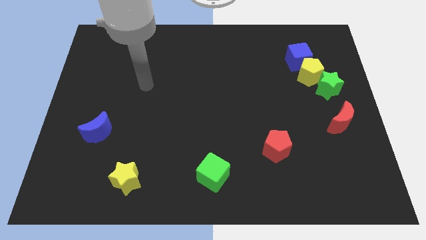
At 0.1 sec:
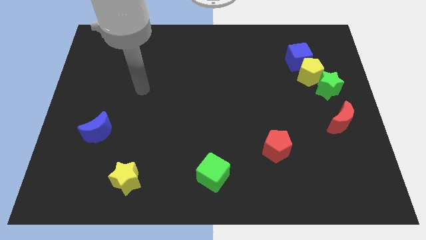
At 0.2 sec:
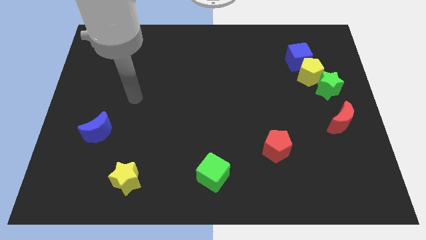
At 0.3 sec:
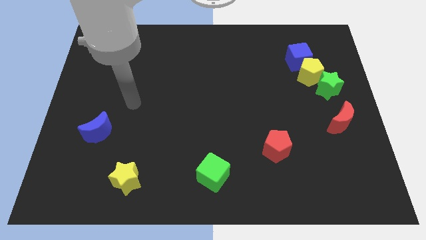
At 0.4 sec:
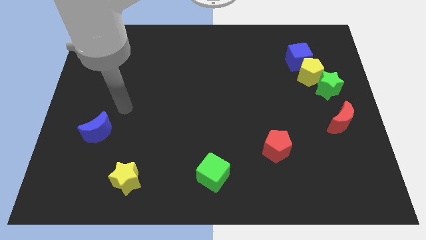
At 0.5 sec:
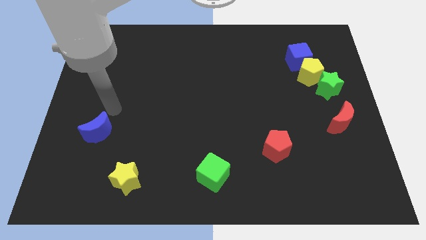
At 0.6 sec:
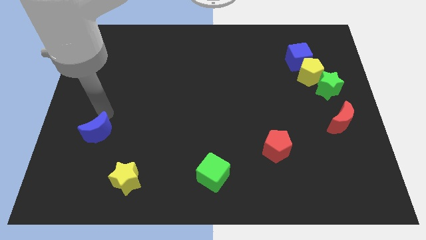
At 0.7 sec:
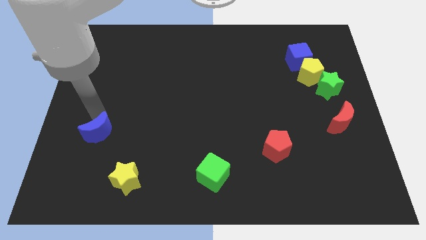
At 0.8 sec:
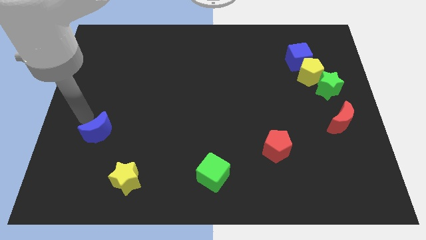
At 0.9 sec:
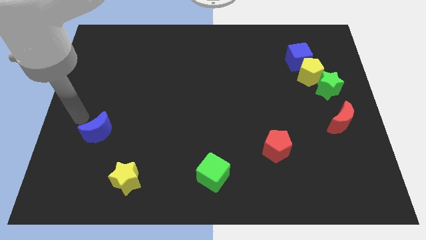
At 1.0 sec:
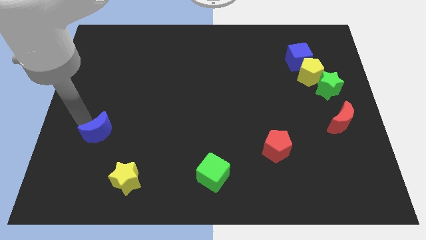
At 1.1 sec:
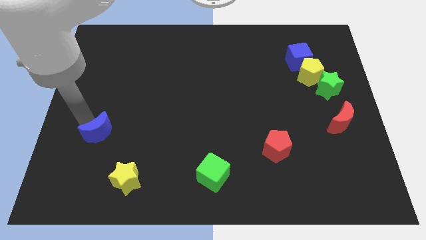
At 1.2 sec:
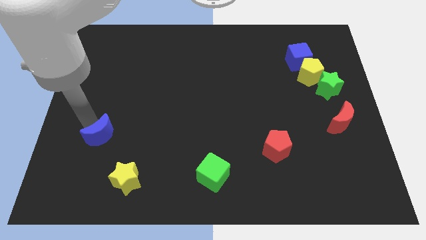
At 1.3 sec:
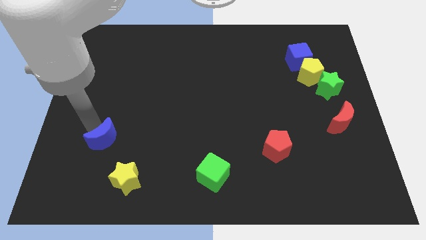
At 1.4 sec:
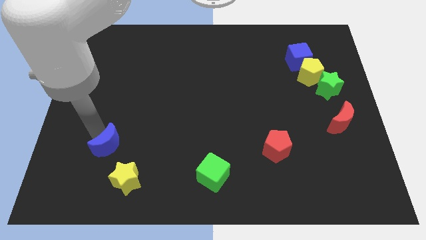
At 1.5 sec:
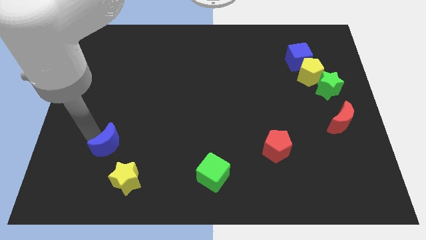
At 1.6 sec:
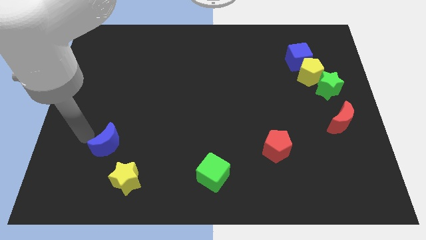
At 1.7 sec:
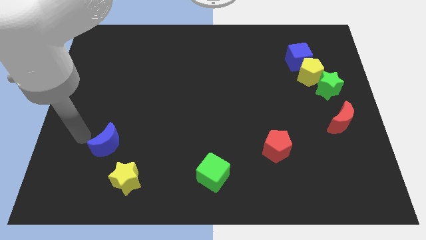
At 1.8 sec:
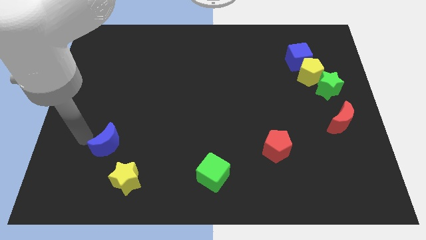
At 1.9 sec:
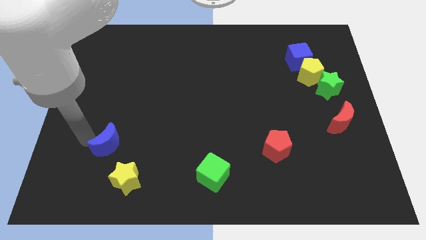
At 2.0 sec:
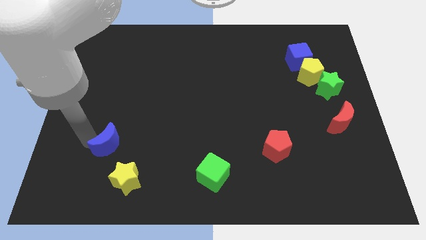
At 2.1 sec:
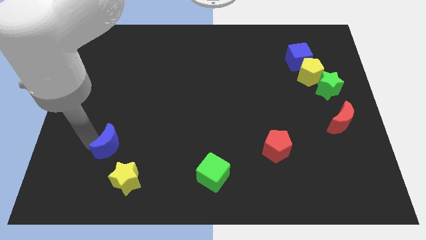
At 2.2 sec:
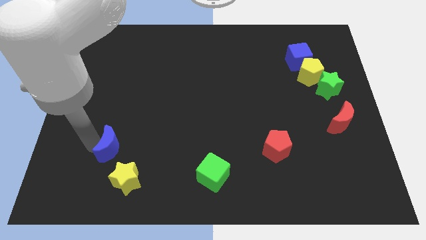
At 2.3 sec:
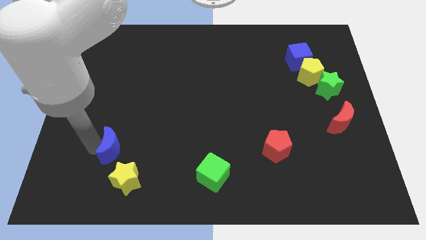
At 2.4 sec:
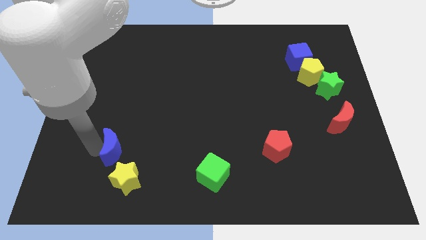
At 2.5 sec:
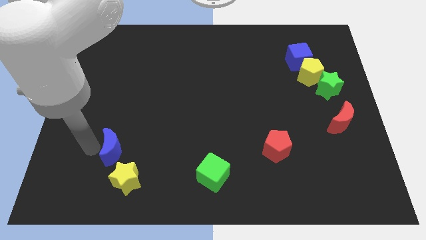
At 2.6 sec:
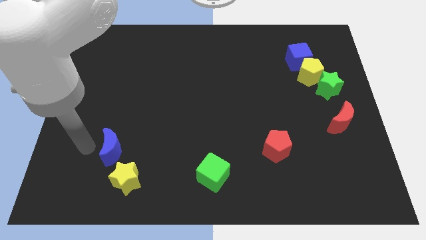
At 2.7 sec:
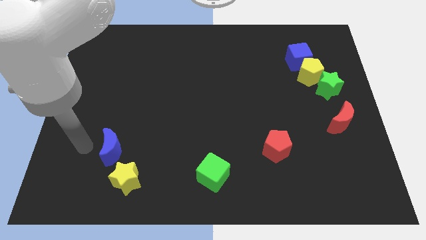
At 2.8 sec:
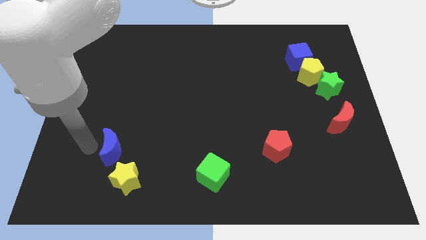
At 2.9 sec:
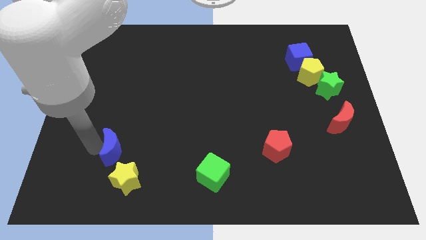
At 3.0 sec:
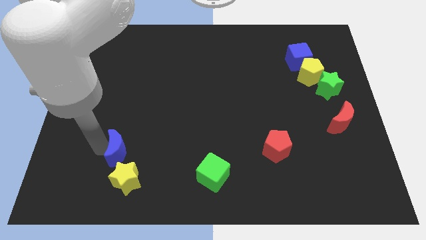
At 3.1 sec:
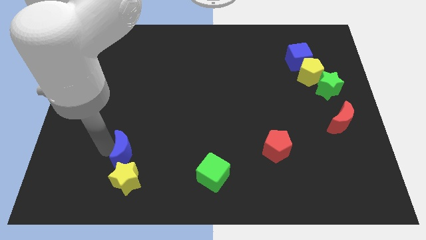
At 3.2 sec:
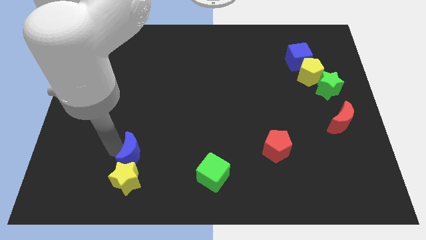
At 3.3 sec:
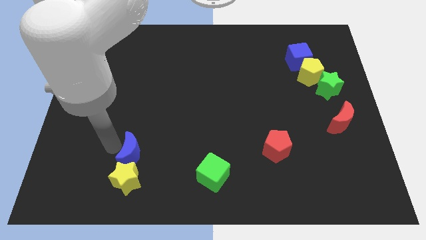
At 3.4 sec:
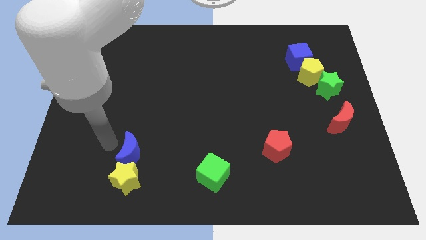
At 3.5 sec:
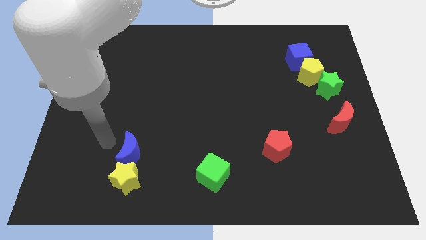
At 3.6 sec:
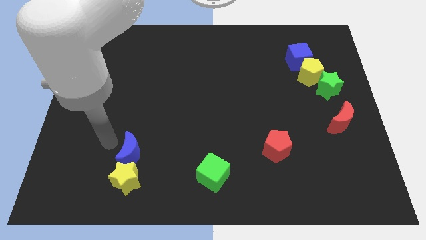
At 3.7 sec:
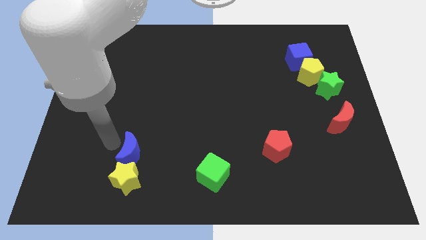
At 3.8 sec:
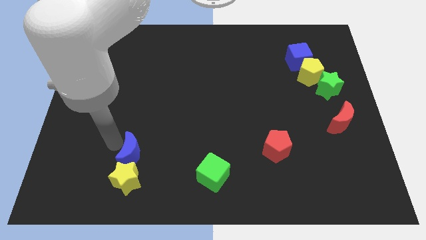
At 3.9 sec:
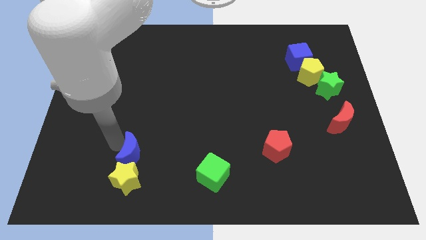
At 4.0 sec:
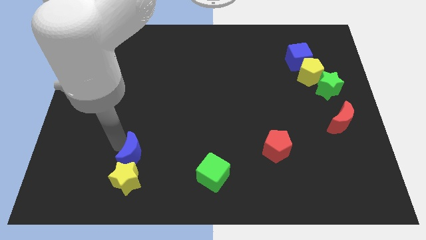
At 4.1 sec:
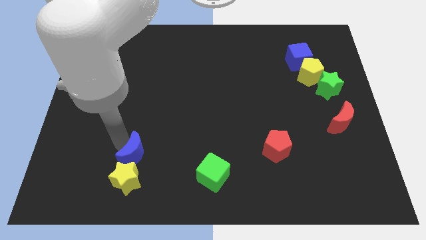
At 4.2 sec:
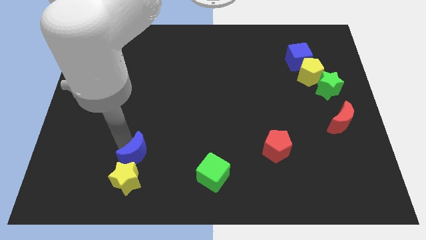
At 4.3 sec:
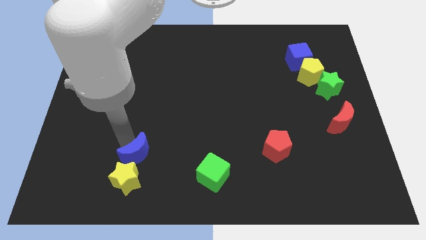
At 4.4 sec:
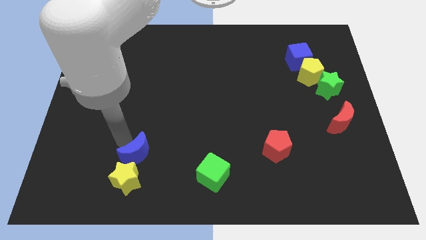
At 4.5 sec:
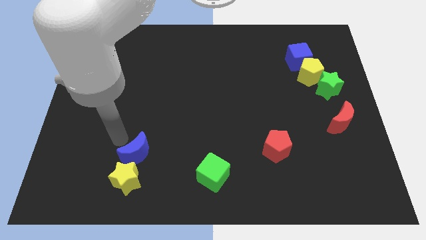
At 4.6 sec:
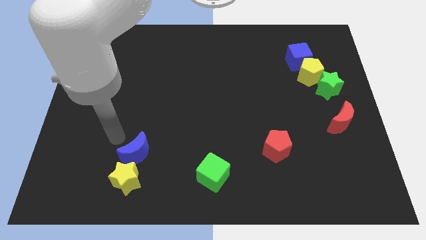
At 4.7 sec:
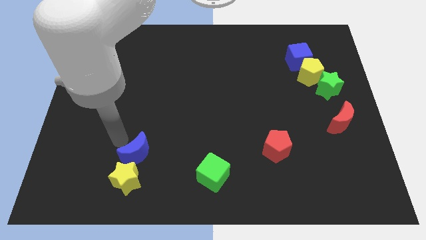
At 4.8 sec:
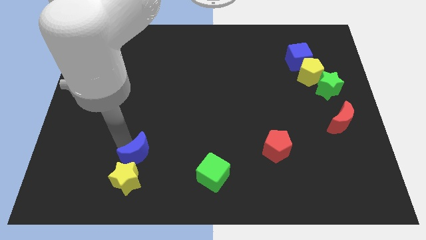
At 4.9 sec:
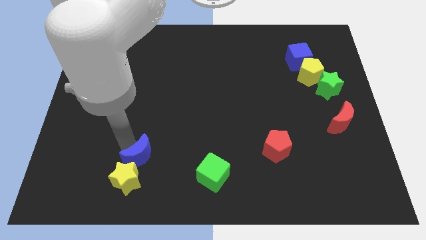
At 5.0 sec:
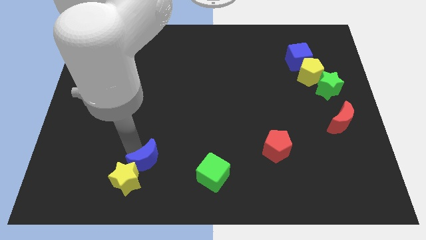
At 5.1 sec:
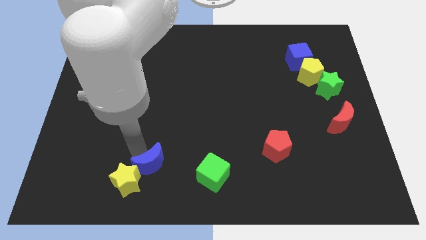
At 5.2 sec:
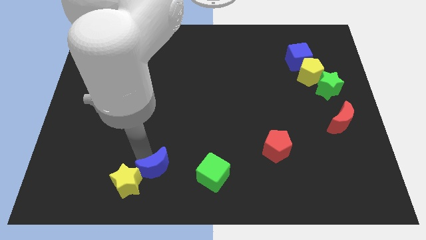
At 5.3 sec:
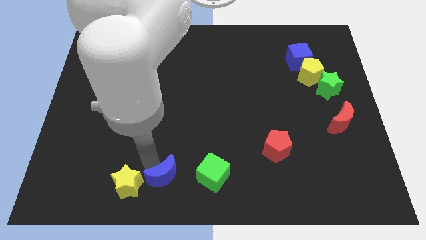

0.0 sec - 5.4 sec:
put the blue moon to the bottom side

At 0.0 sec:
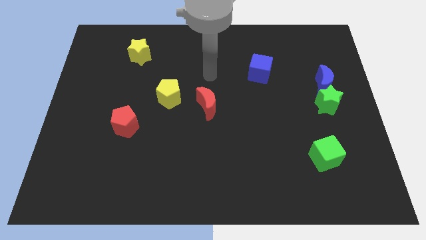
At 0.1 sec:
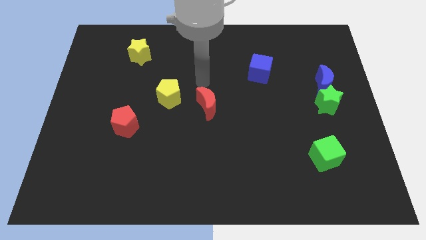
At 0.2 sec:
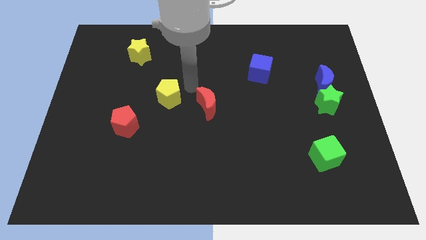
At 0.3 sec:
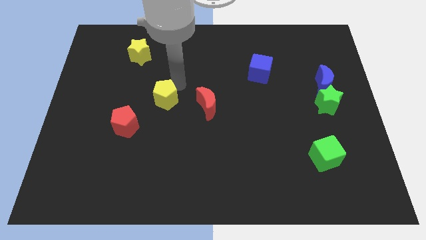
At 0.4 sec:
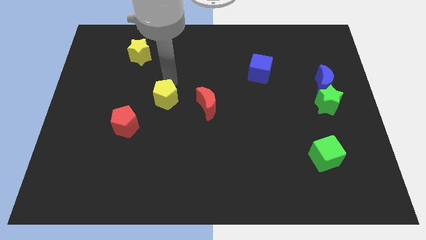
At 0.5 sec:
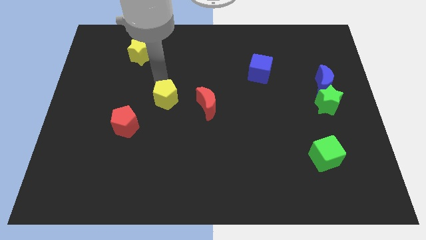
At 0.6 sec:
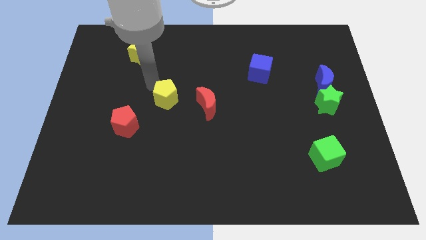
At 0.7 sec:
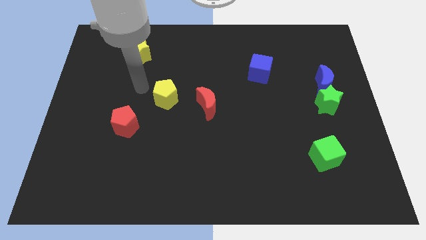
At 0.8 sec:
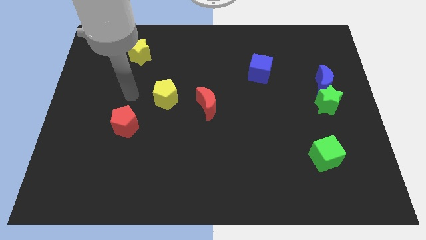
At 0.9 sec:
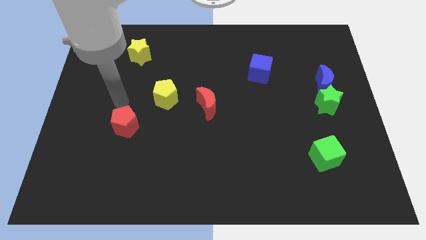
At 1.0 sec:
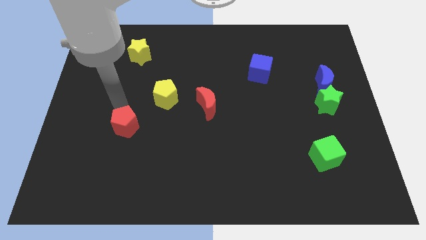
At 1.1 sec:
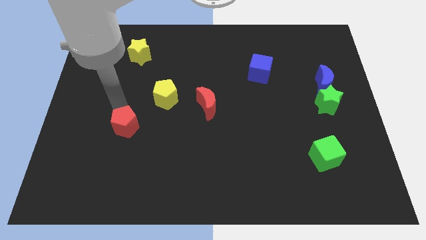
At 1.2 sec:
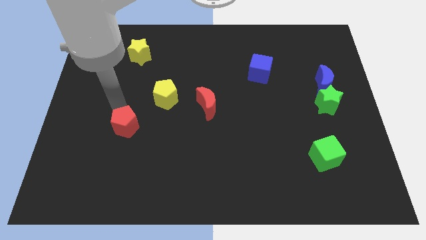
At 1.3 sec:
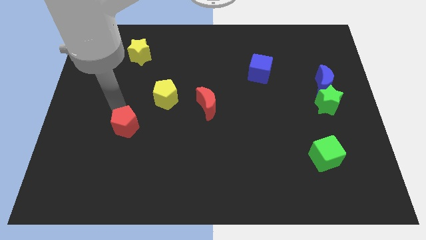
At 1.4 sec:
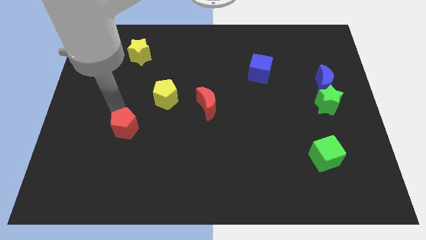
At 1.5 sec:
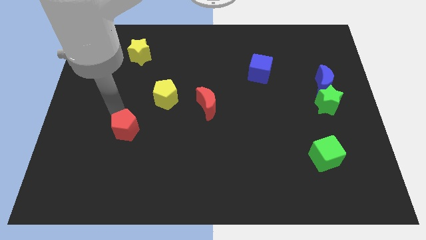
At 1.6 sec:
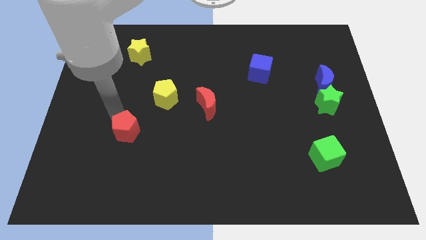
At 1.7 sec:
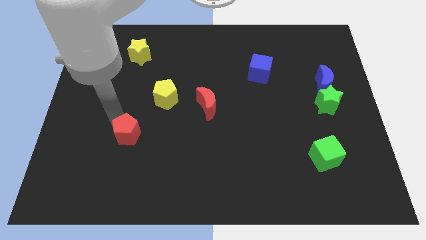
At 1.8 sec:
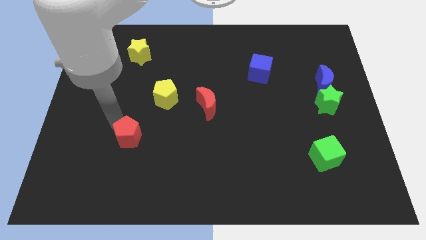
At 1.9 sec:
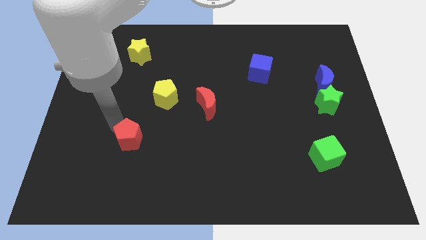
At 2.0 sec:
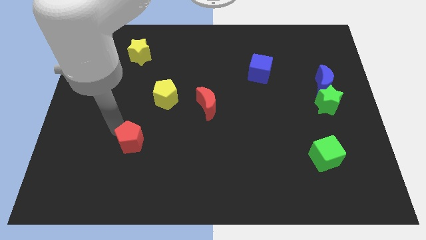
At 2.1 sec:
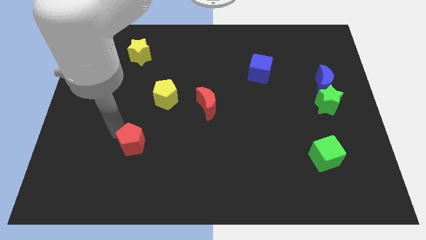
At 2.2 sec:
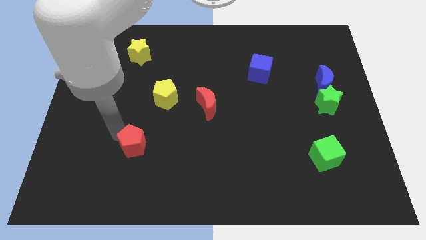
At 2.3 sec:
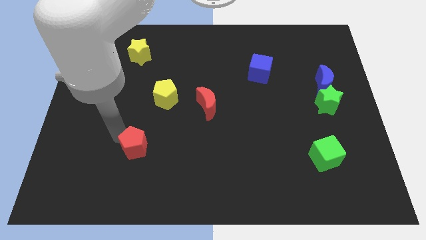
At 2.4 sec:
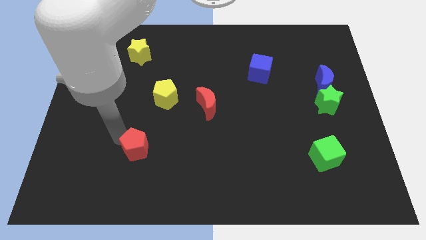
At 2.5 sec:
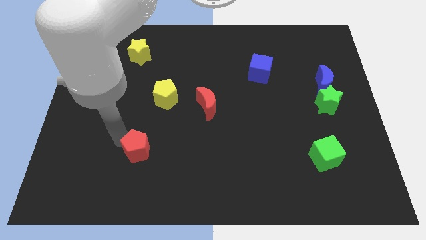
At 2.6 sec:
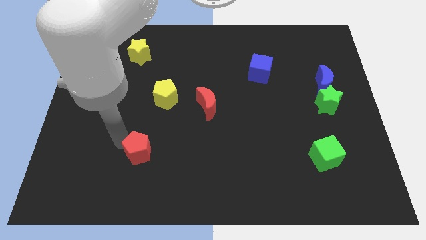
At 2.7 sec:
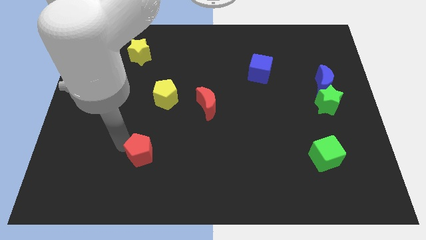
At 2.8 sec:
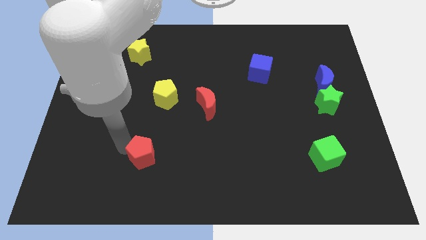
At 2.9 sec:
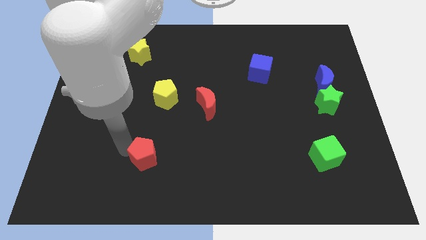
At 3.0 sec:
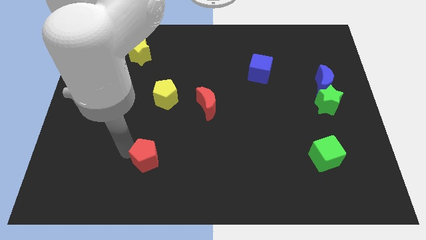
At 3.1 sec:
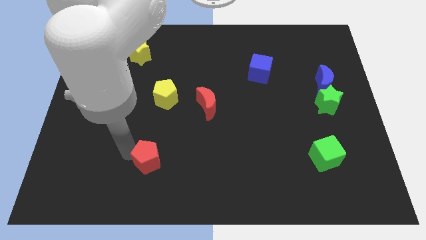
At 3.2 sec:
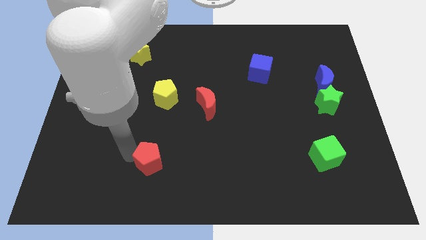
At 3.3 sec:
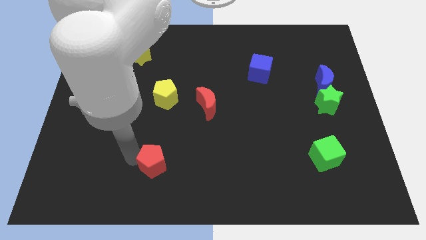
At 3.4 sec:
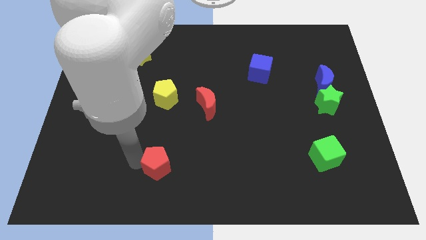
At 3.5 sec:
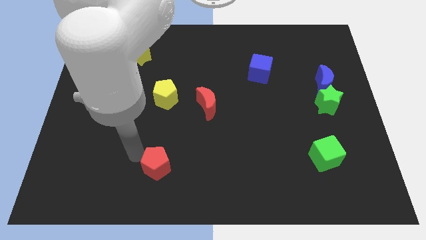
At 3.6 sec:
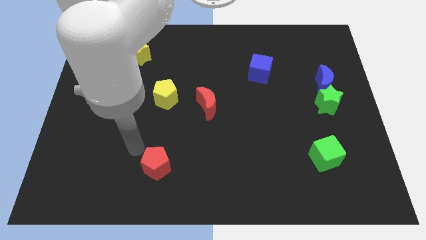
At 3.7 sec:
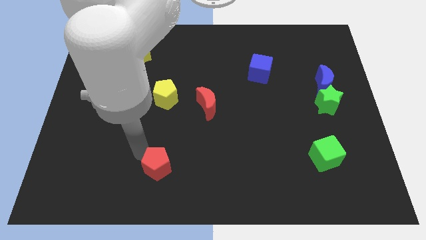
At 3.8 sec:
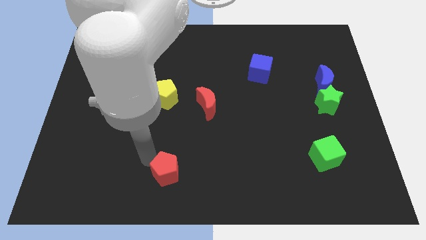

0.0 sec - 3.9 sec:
slide the red pentagon to the bottom
